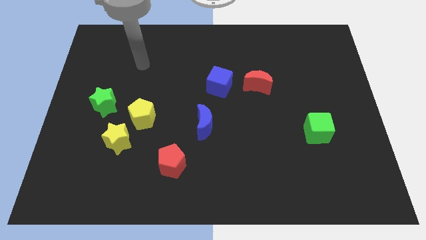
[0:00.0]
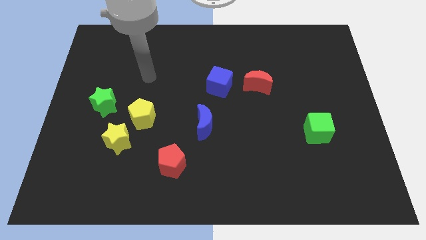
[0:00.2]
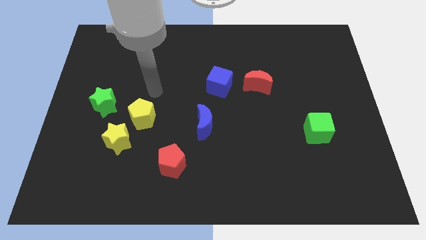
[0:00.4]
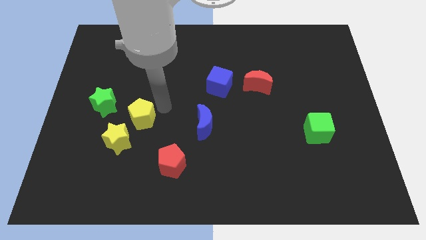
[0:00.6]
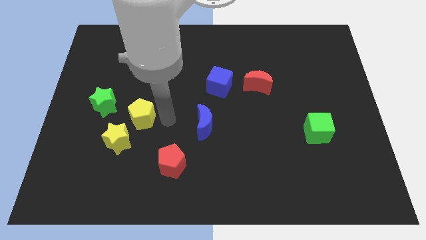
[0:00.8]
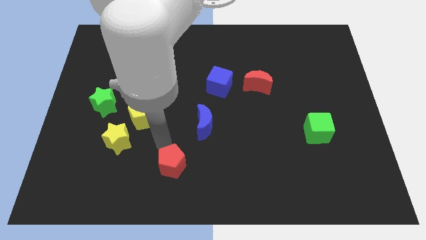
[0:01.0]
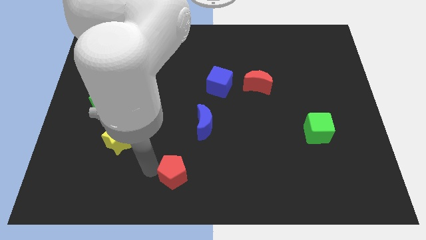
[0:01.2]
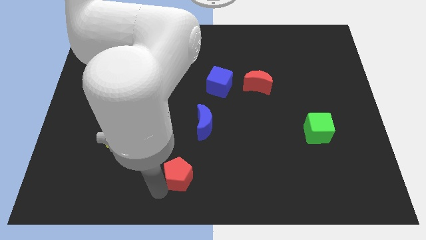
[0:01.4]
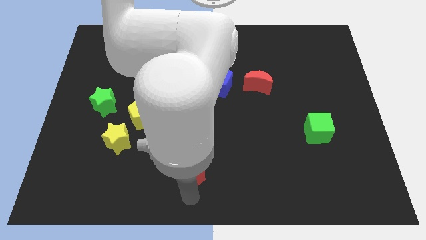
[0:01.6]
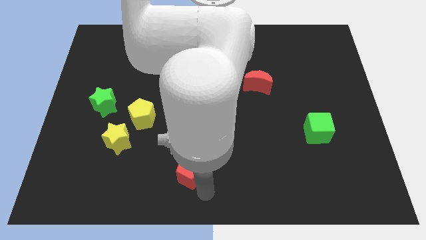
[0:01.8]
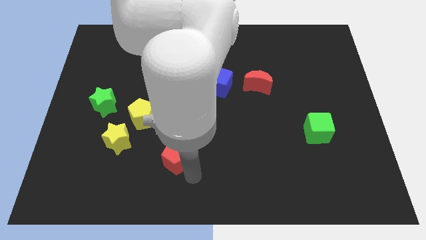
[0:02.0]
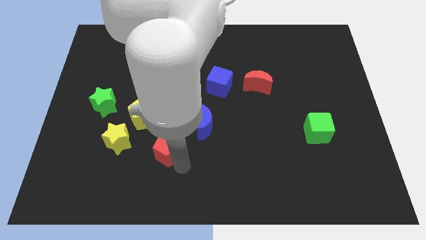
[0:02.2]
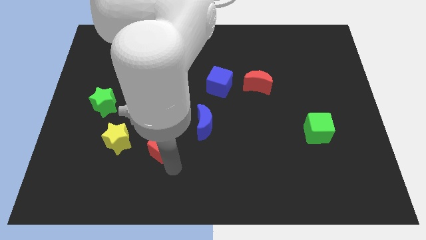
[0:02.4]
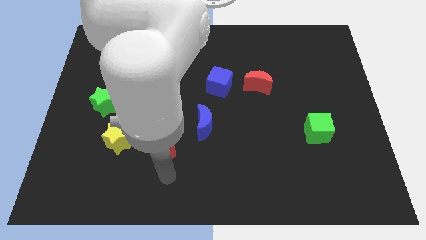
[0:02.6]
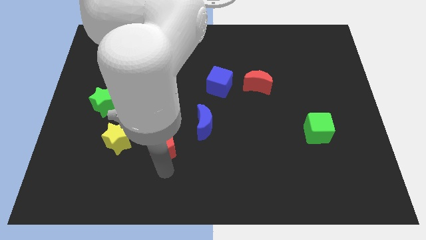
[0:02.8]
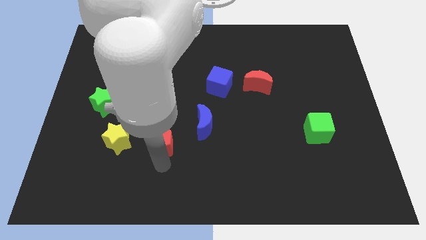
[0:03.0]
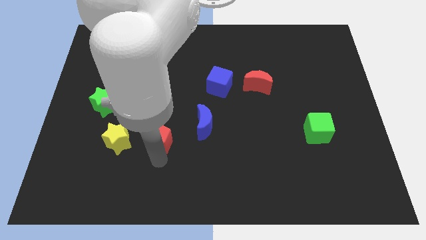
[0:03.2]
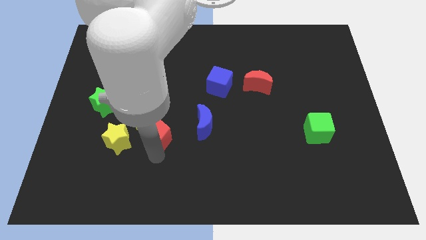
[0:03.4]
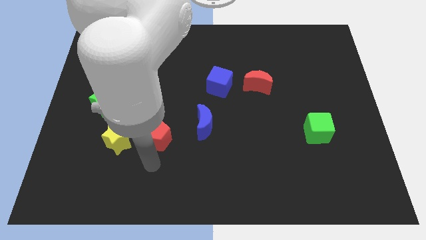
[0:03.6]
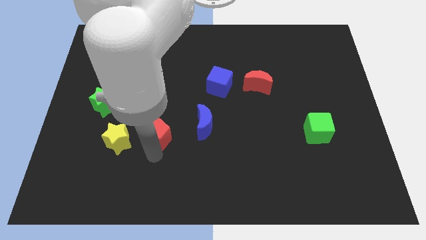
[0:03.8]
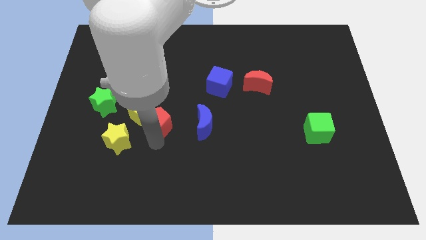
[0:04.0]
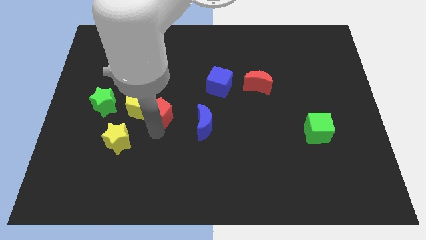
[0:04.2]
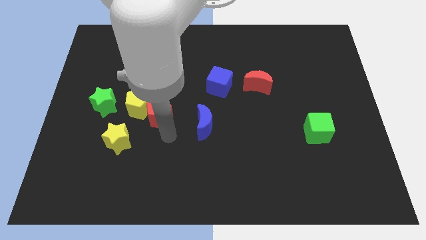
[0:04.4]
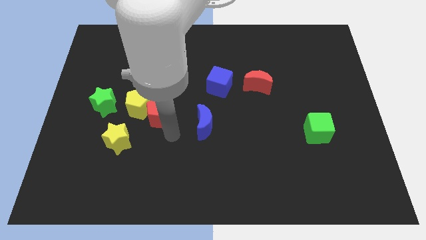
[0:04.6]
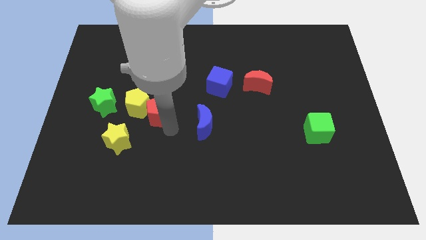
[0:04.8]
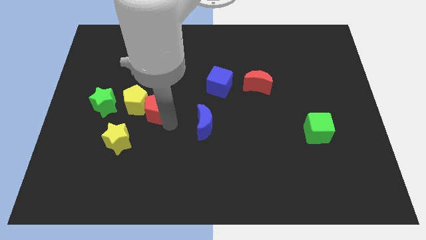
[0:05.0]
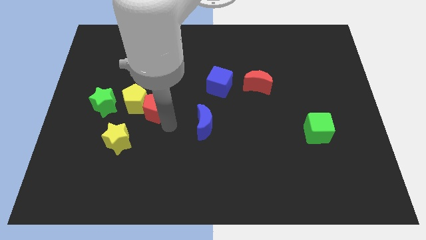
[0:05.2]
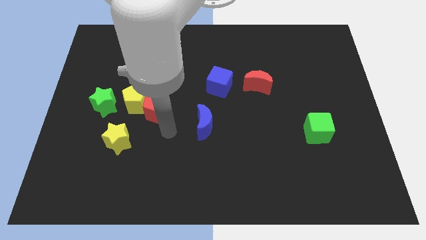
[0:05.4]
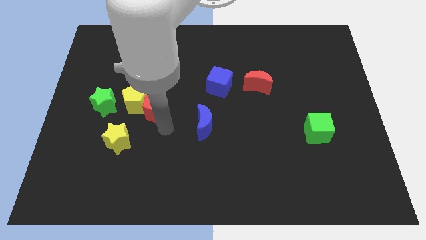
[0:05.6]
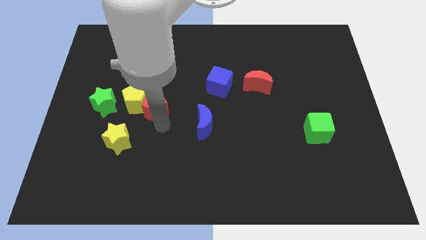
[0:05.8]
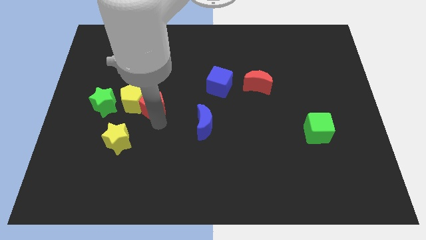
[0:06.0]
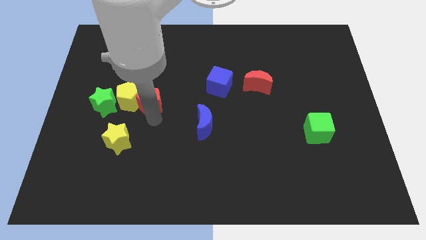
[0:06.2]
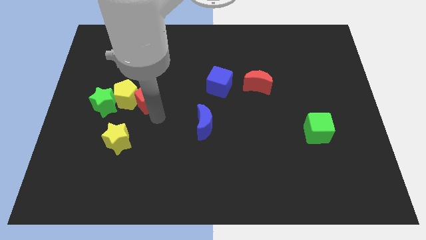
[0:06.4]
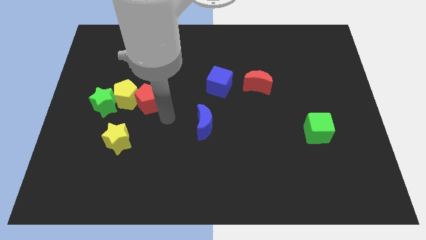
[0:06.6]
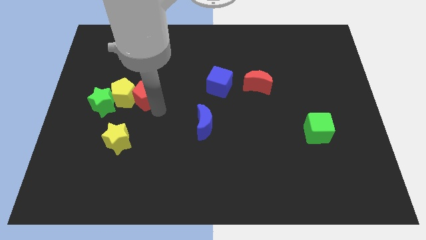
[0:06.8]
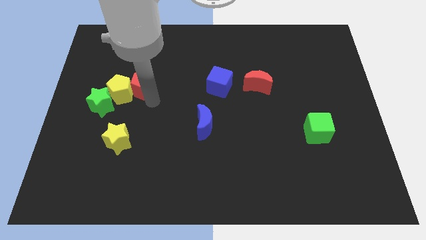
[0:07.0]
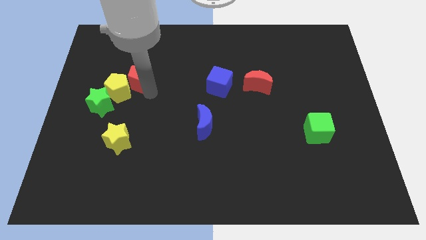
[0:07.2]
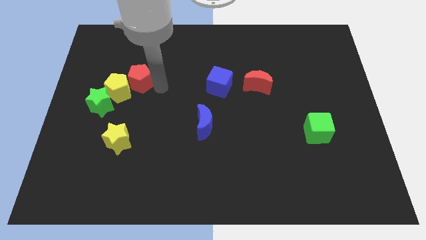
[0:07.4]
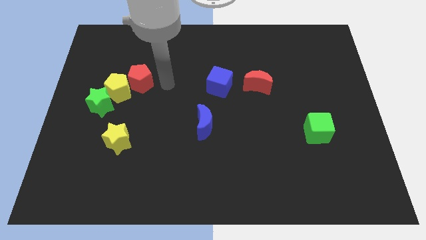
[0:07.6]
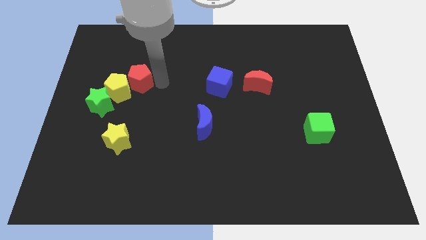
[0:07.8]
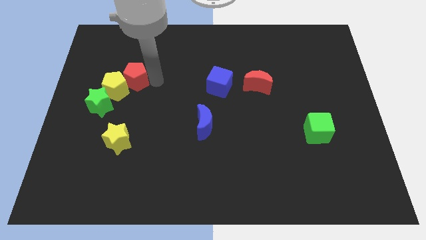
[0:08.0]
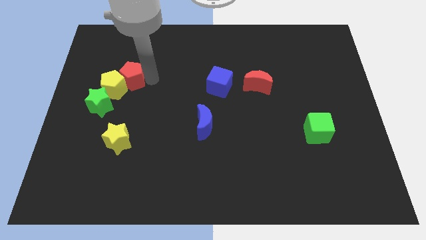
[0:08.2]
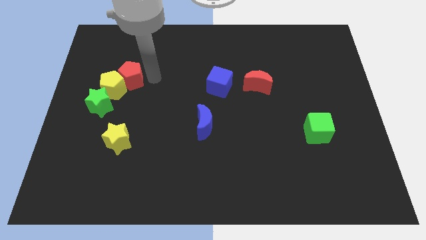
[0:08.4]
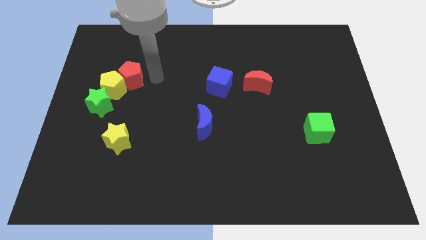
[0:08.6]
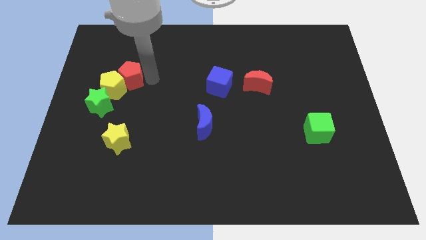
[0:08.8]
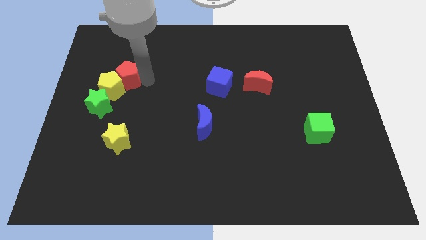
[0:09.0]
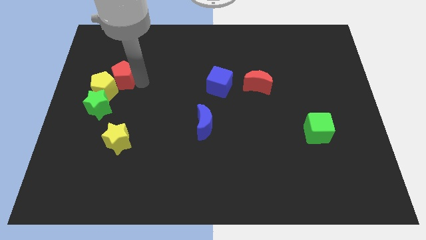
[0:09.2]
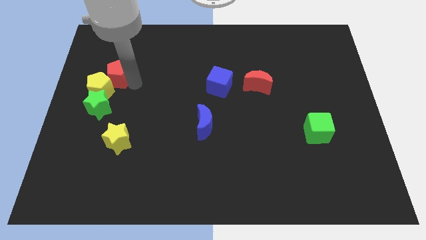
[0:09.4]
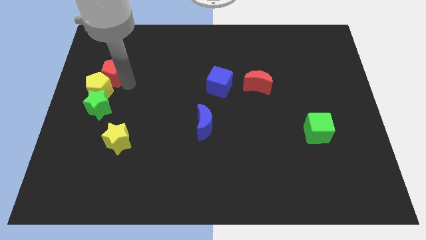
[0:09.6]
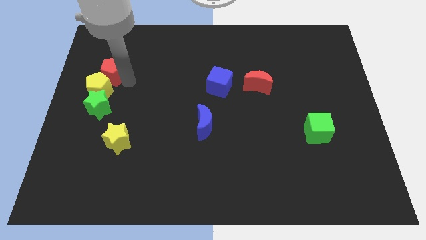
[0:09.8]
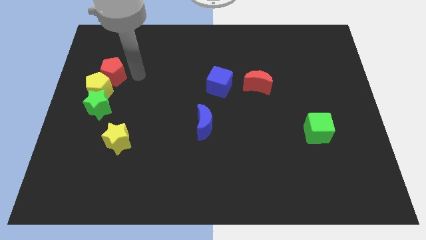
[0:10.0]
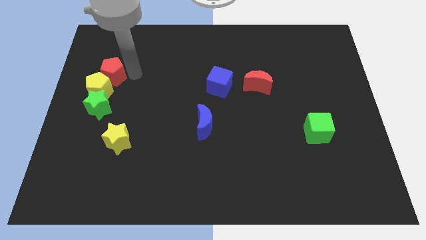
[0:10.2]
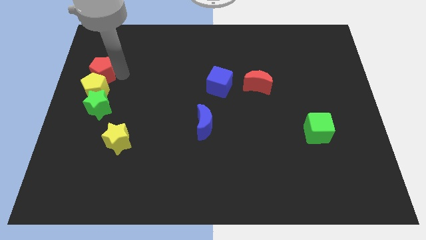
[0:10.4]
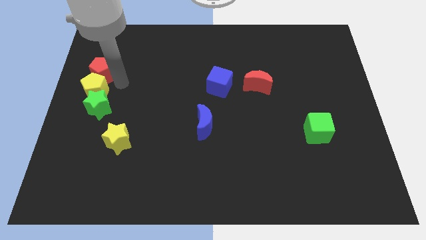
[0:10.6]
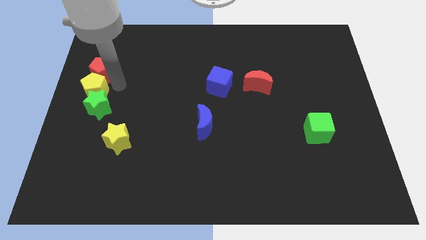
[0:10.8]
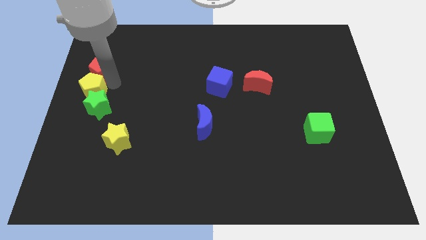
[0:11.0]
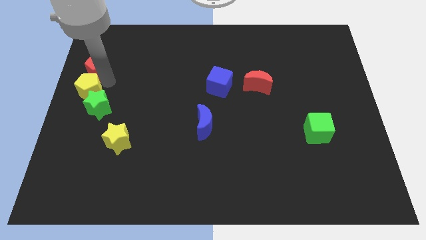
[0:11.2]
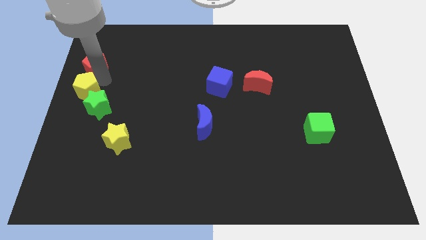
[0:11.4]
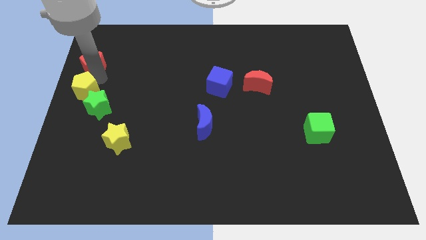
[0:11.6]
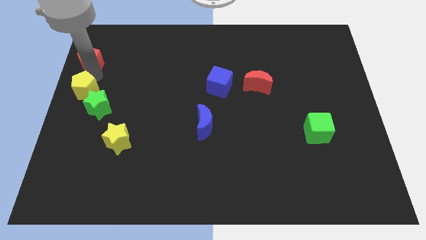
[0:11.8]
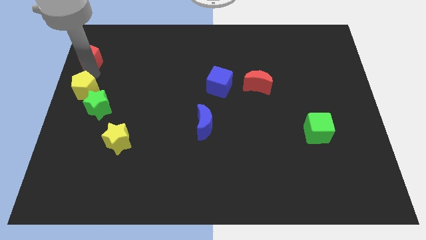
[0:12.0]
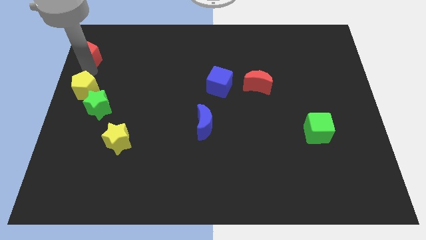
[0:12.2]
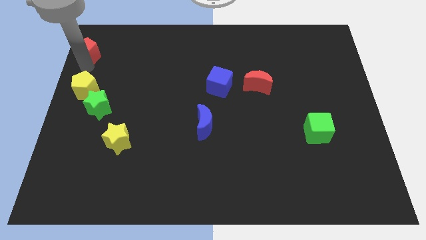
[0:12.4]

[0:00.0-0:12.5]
move the red pentagon to the upper left corner

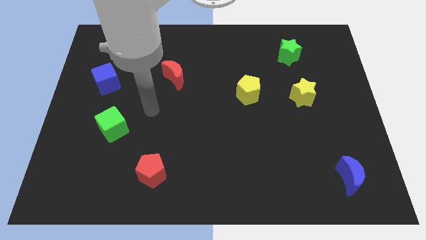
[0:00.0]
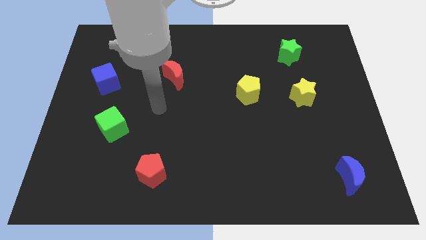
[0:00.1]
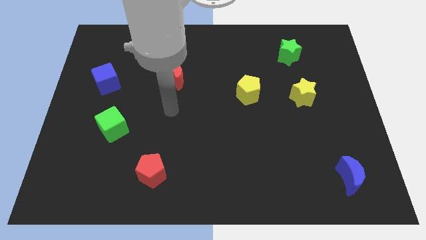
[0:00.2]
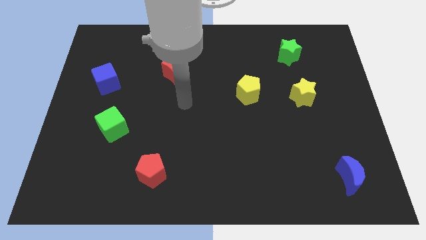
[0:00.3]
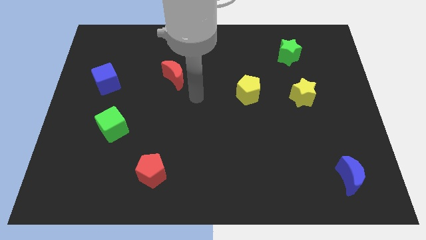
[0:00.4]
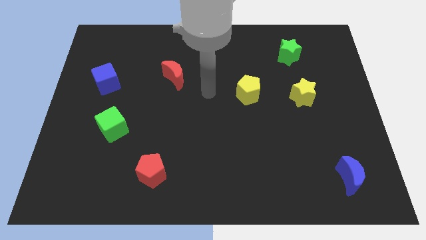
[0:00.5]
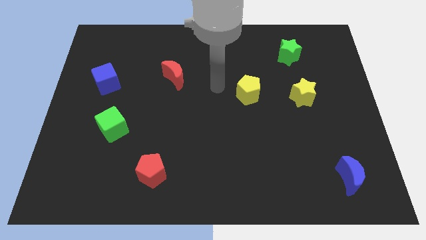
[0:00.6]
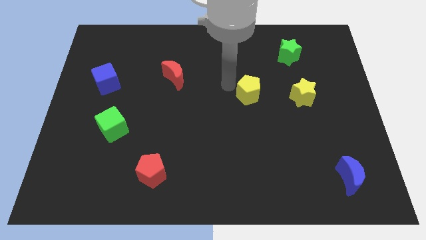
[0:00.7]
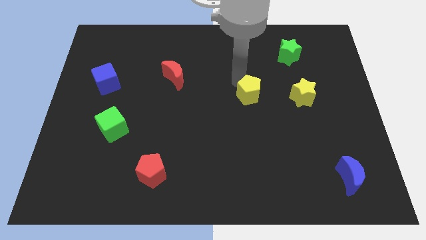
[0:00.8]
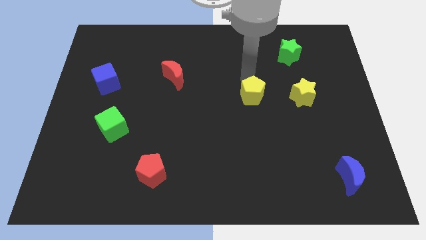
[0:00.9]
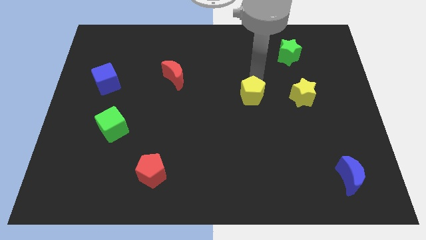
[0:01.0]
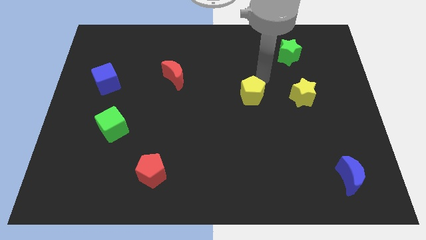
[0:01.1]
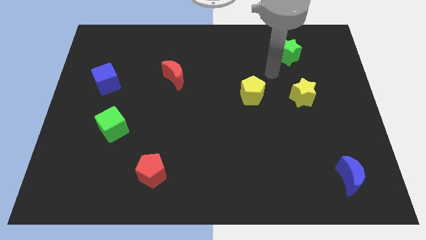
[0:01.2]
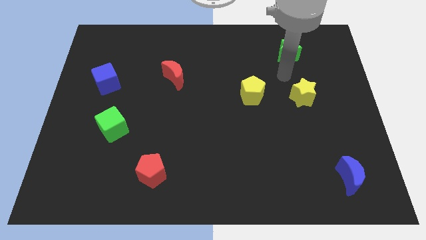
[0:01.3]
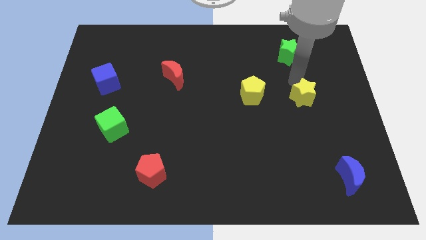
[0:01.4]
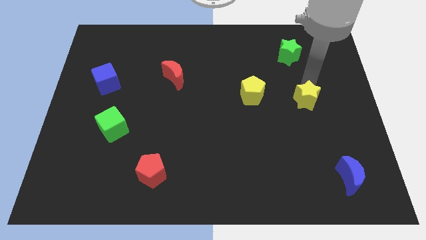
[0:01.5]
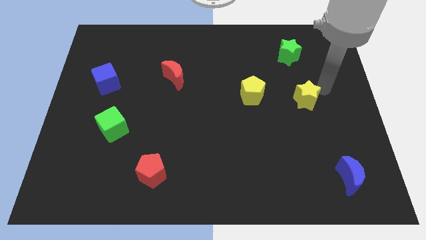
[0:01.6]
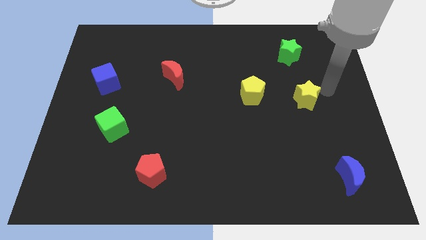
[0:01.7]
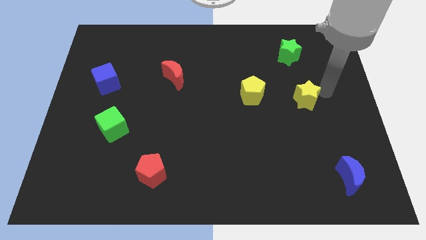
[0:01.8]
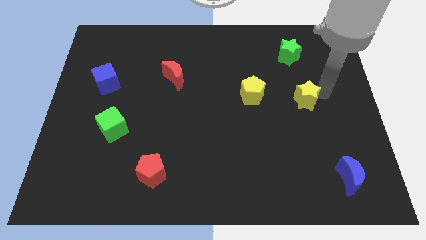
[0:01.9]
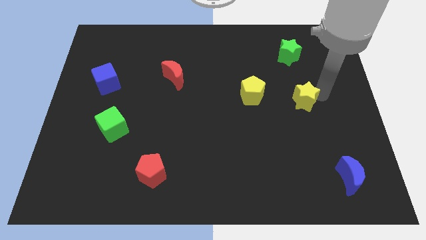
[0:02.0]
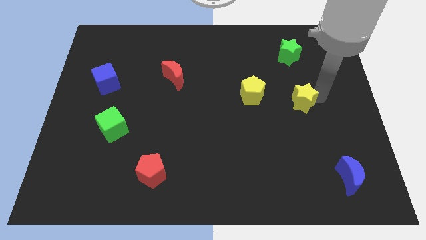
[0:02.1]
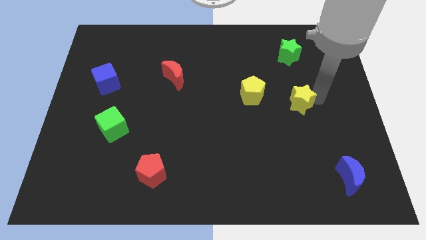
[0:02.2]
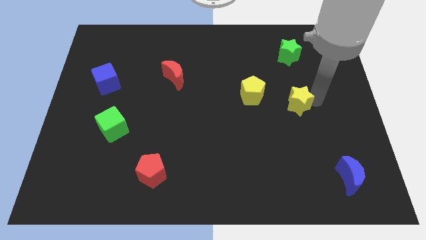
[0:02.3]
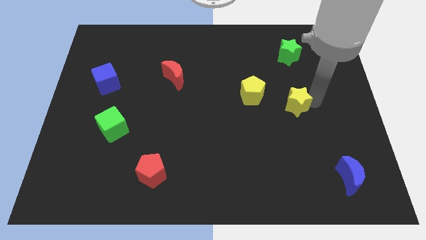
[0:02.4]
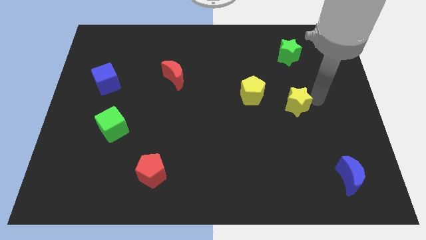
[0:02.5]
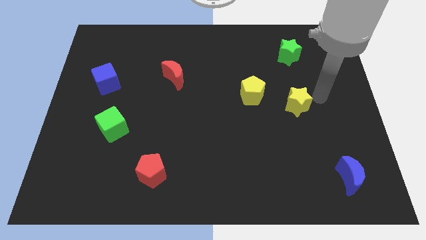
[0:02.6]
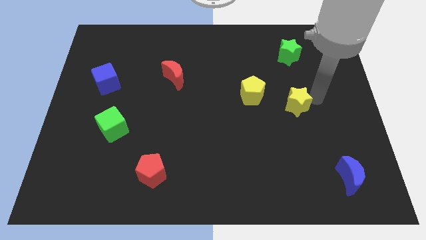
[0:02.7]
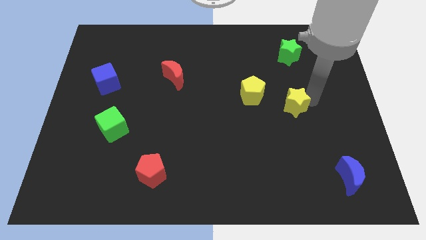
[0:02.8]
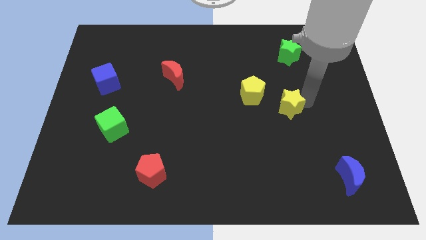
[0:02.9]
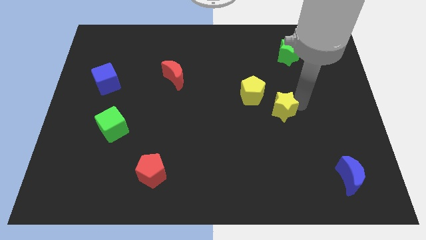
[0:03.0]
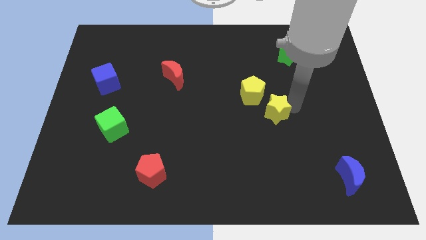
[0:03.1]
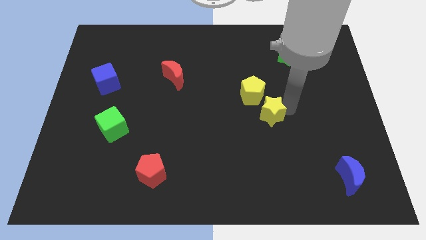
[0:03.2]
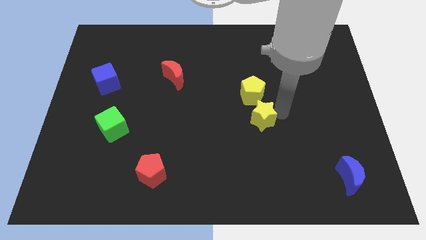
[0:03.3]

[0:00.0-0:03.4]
put the yellow star to the middle of the board
